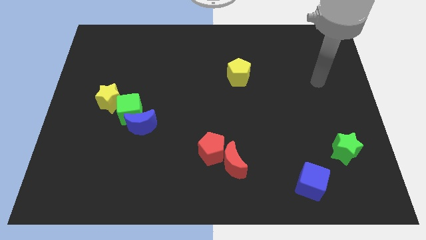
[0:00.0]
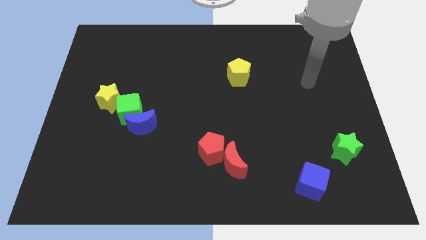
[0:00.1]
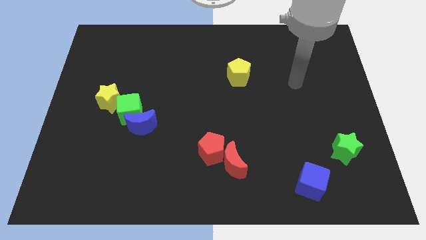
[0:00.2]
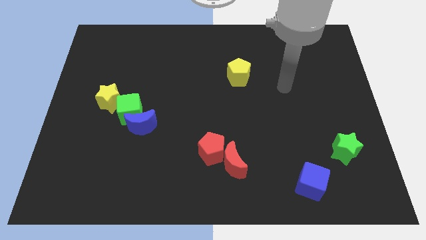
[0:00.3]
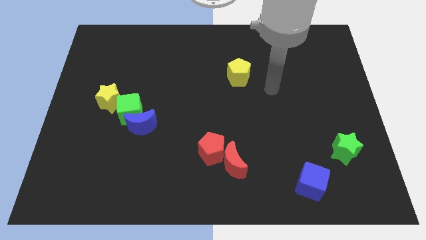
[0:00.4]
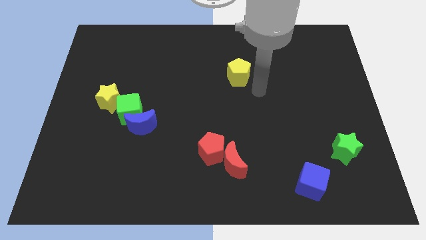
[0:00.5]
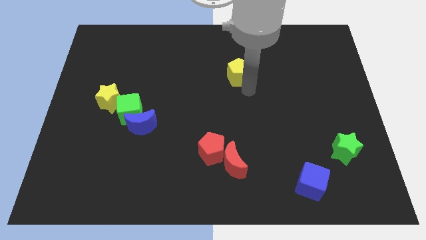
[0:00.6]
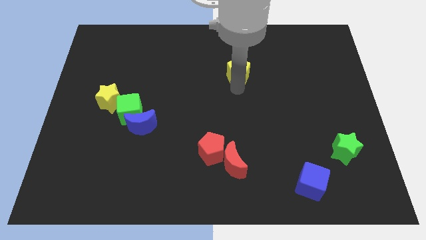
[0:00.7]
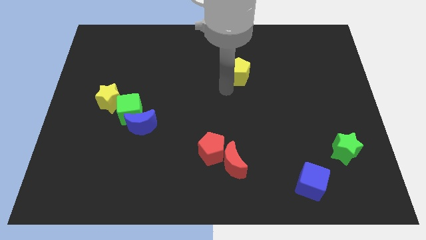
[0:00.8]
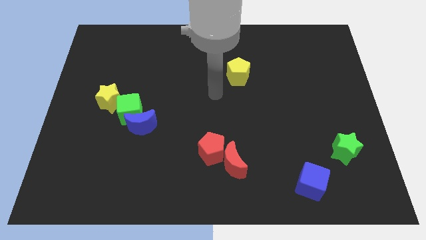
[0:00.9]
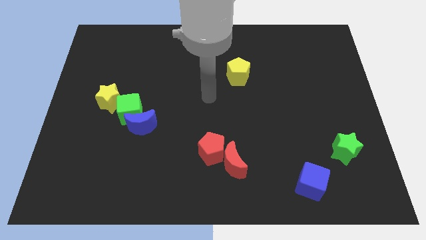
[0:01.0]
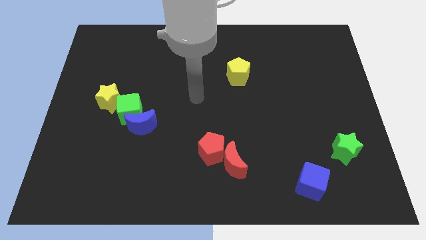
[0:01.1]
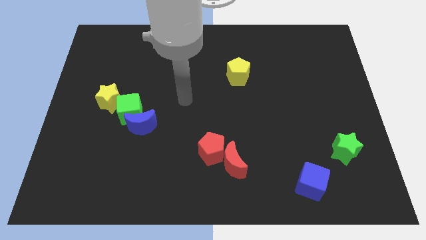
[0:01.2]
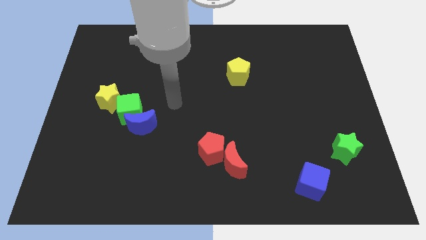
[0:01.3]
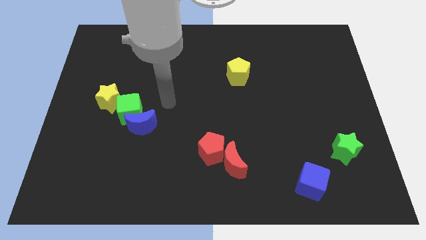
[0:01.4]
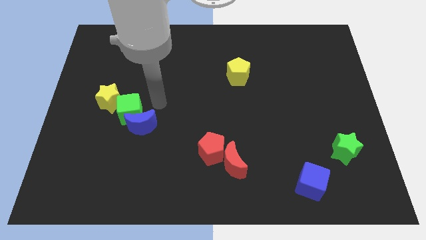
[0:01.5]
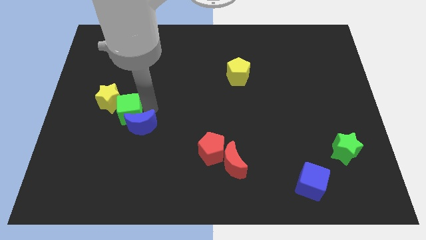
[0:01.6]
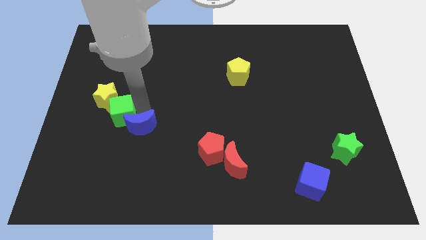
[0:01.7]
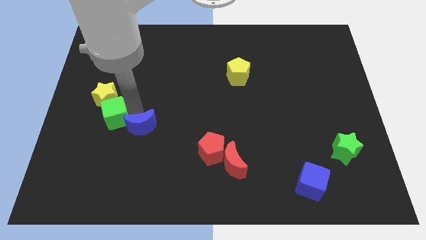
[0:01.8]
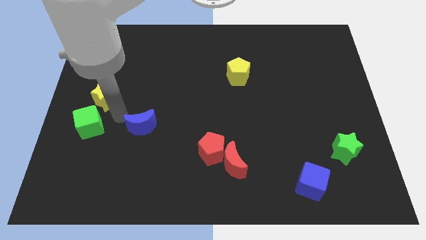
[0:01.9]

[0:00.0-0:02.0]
move the blue moon away from the green cube

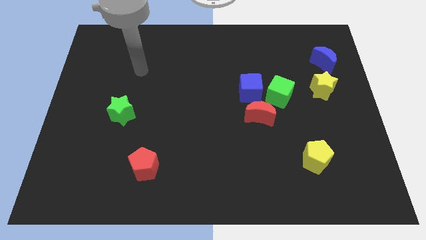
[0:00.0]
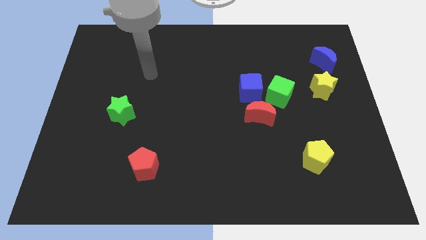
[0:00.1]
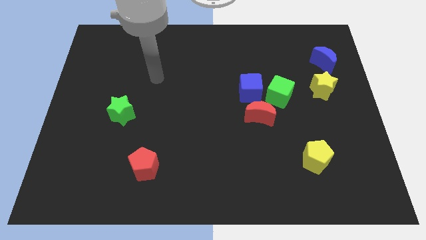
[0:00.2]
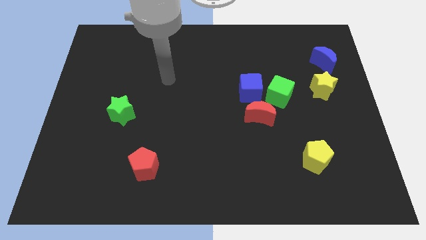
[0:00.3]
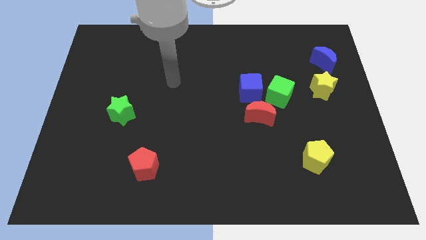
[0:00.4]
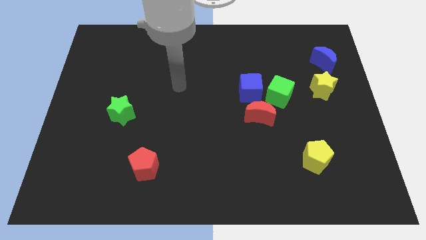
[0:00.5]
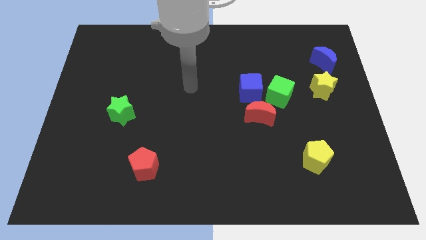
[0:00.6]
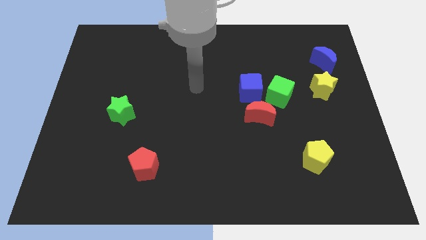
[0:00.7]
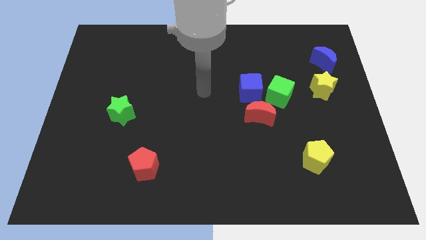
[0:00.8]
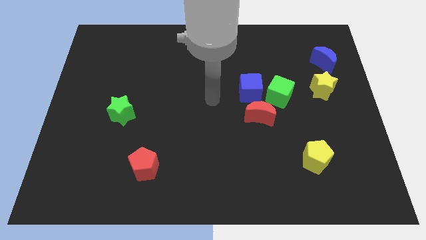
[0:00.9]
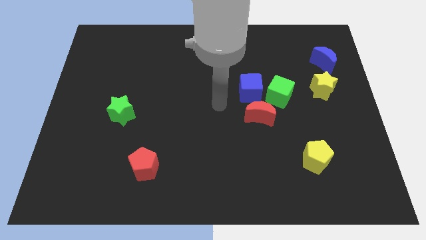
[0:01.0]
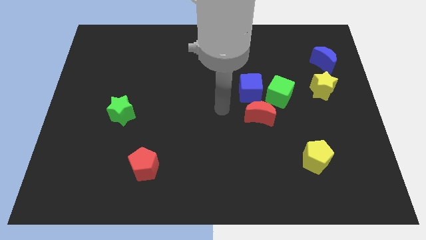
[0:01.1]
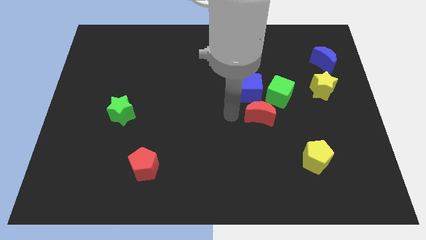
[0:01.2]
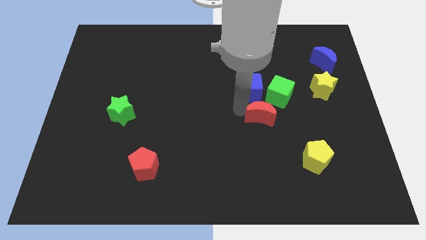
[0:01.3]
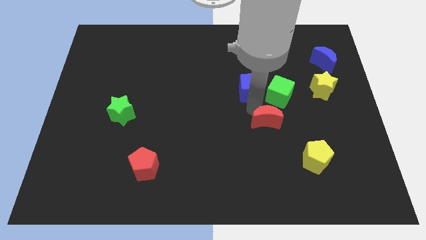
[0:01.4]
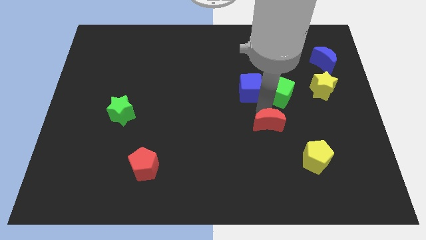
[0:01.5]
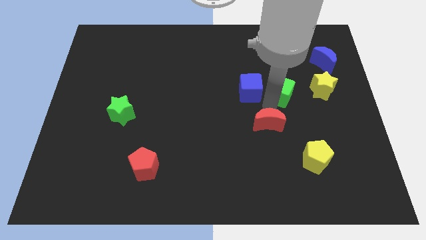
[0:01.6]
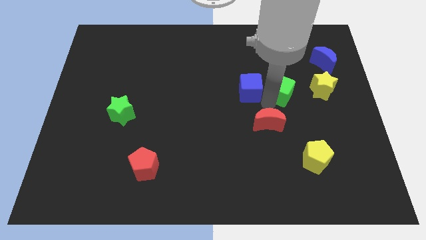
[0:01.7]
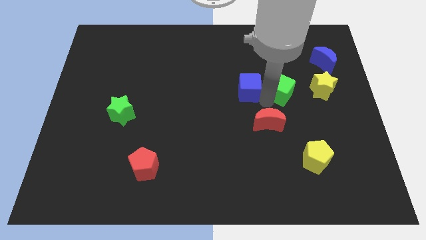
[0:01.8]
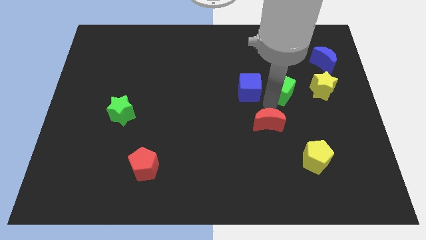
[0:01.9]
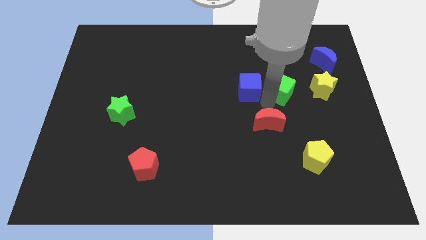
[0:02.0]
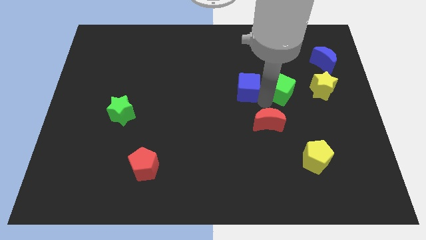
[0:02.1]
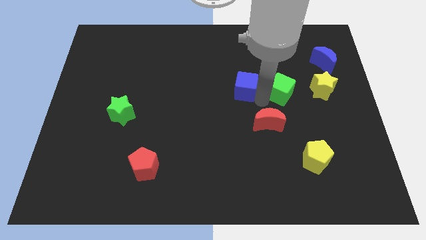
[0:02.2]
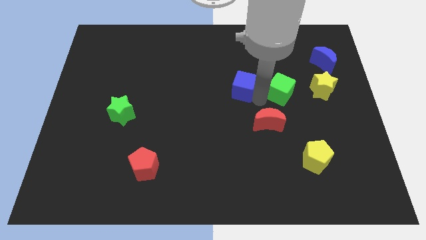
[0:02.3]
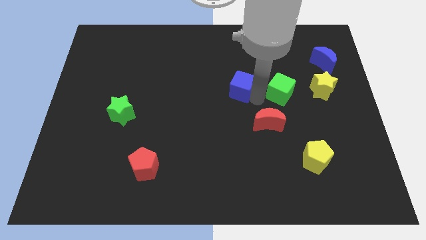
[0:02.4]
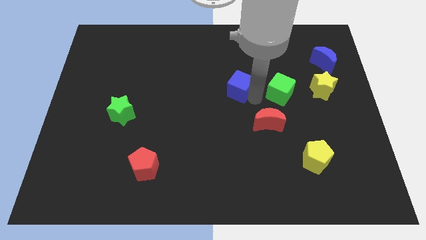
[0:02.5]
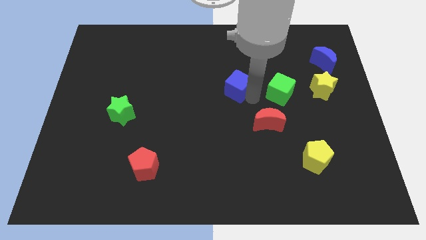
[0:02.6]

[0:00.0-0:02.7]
move the blue cube away from the green cube and red moon

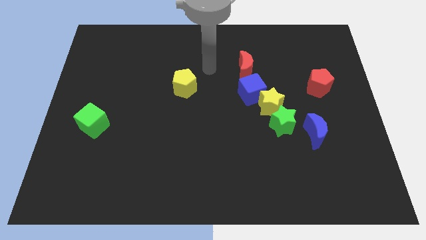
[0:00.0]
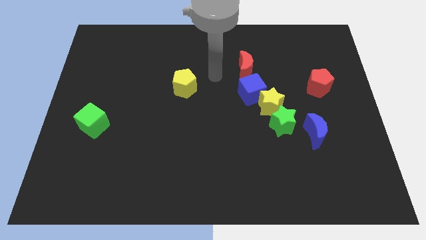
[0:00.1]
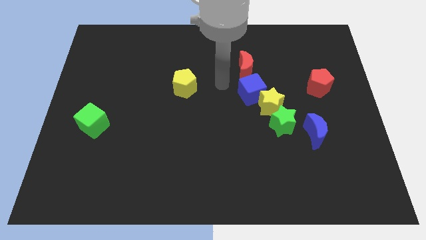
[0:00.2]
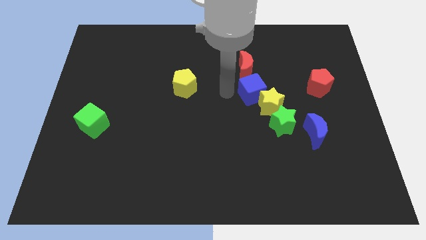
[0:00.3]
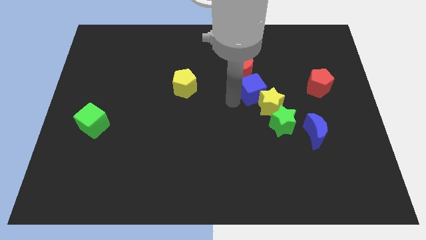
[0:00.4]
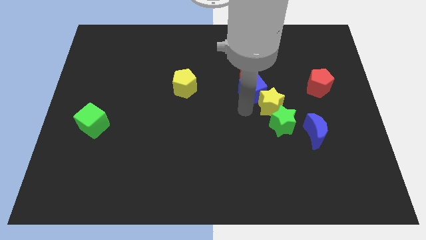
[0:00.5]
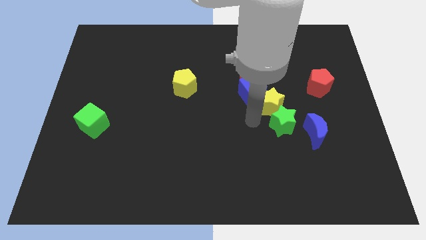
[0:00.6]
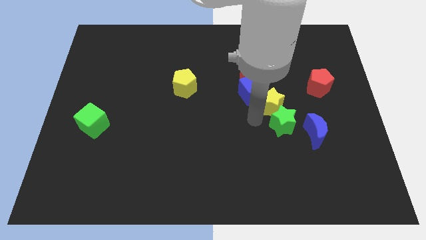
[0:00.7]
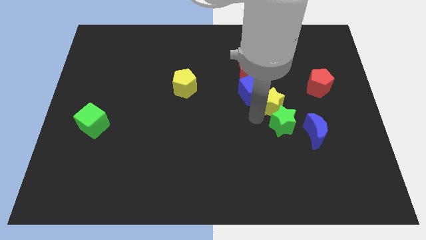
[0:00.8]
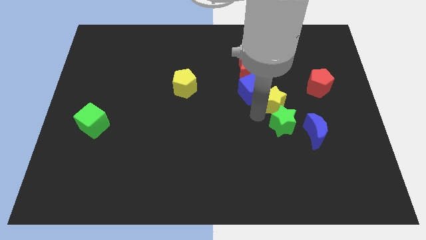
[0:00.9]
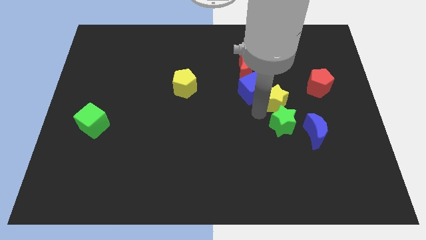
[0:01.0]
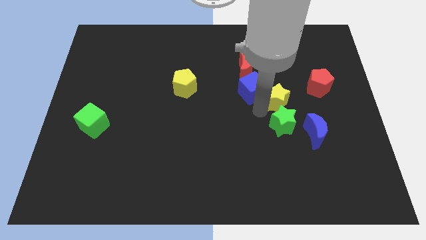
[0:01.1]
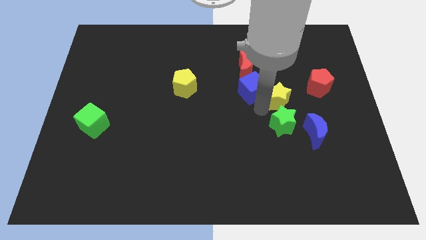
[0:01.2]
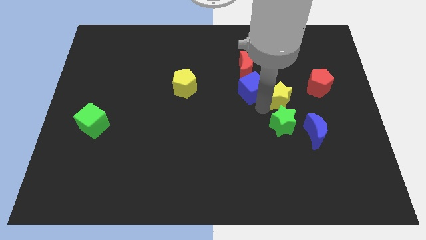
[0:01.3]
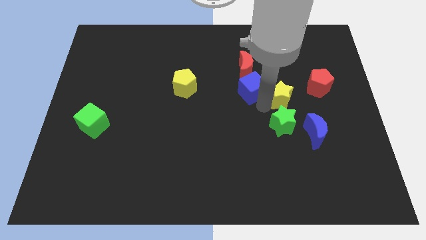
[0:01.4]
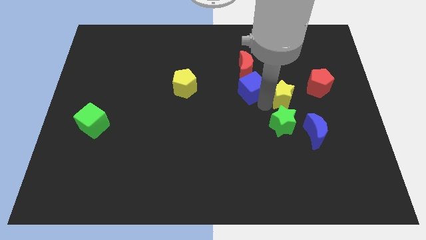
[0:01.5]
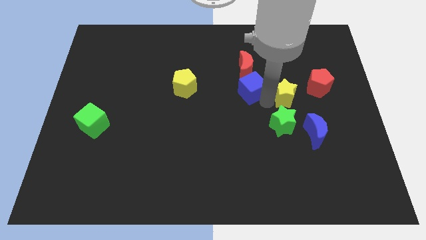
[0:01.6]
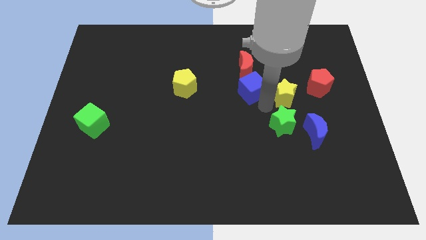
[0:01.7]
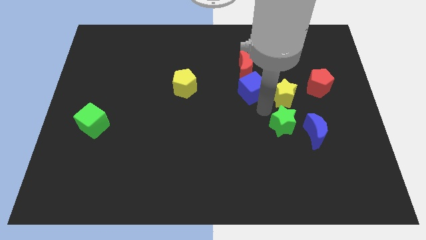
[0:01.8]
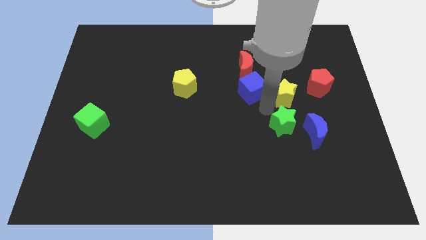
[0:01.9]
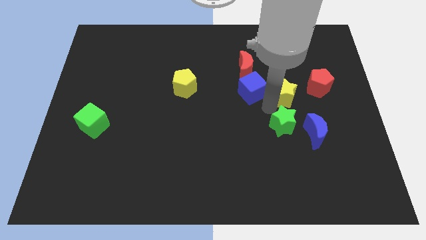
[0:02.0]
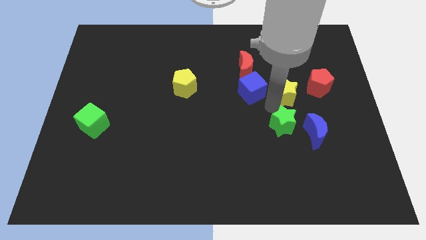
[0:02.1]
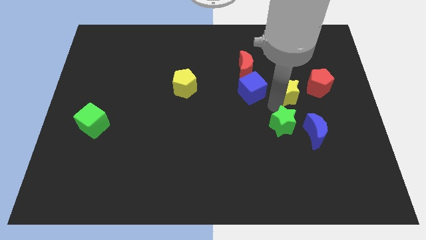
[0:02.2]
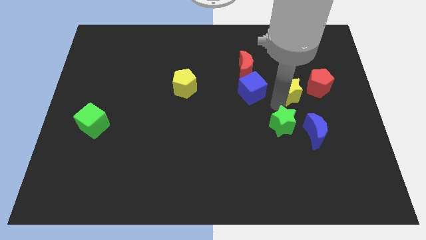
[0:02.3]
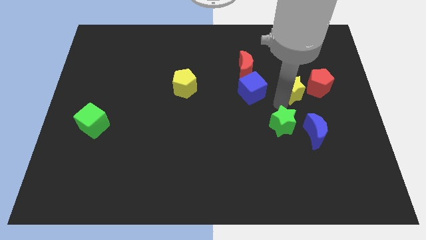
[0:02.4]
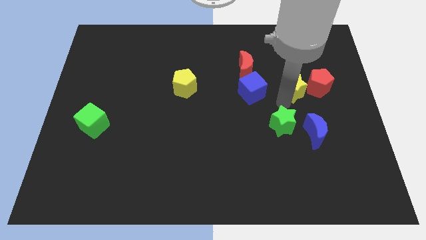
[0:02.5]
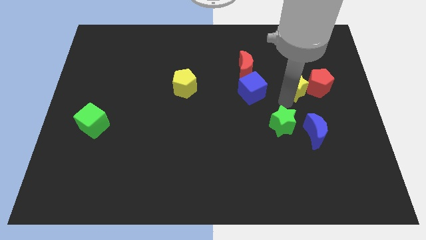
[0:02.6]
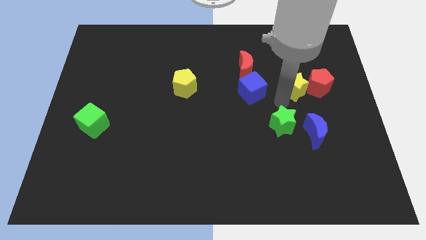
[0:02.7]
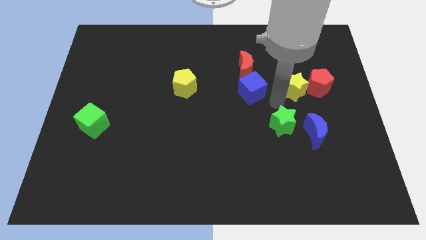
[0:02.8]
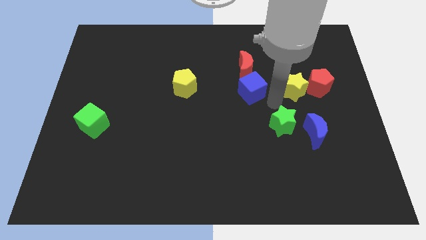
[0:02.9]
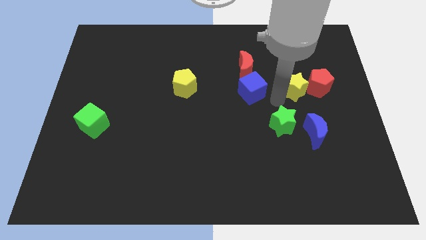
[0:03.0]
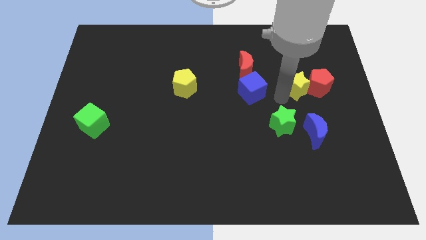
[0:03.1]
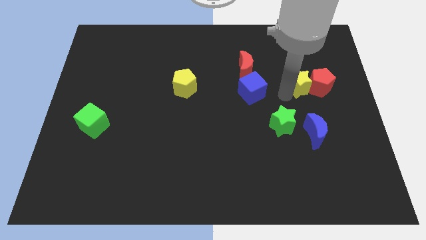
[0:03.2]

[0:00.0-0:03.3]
separate the yellow star from the blue cube and green star

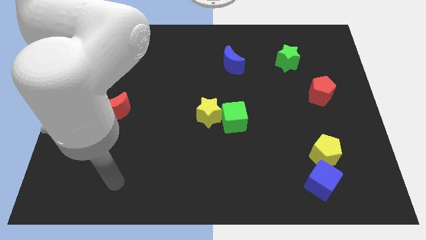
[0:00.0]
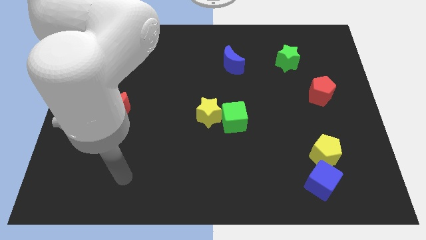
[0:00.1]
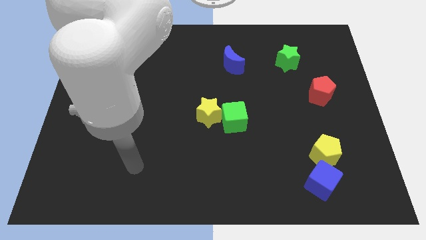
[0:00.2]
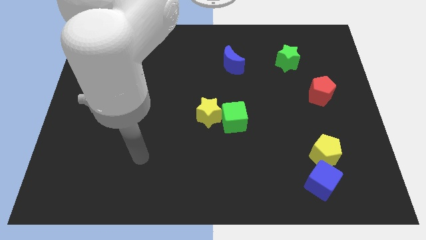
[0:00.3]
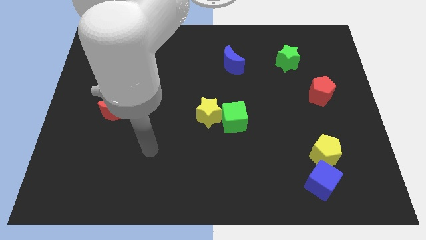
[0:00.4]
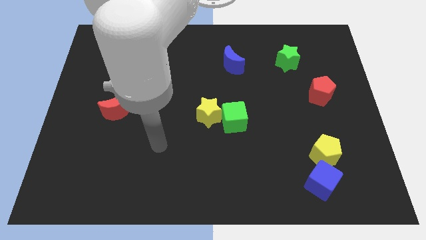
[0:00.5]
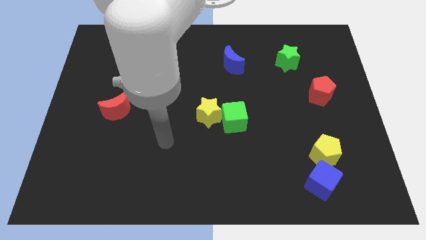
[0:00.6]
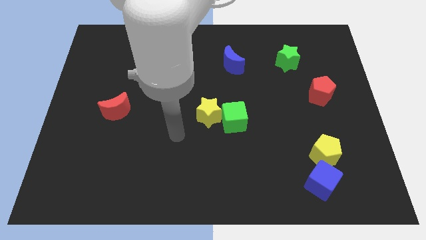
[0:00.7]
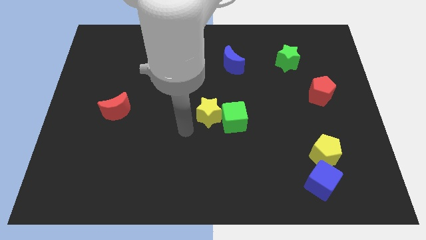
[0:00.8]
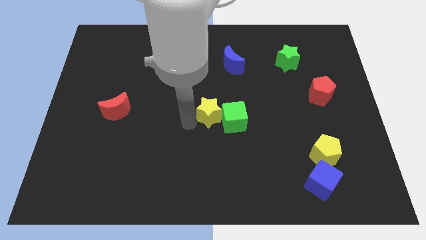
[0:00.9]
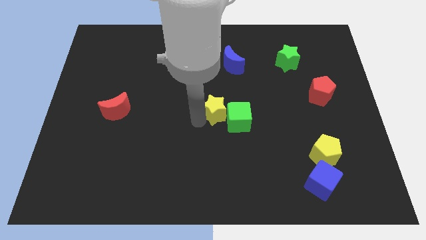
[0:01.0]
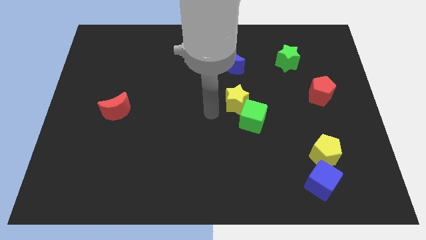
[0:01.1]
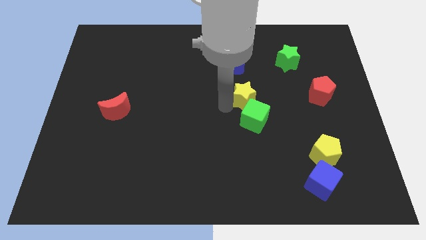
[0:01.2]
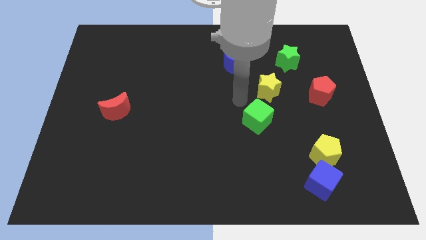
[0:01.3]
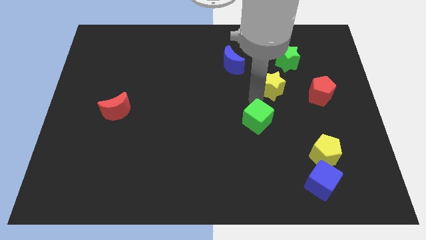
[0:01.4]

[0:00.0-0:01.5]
separate the green cube from the yellow star
